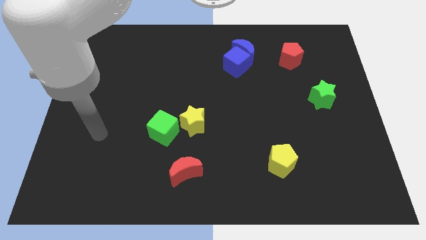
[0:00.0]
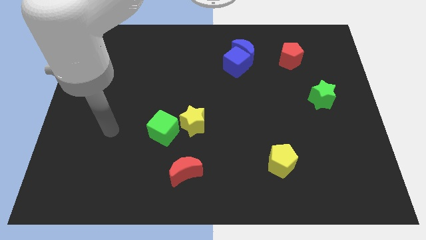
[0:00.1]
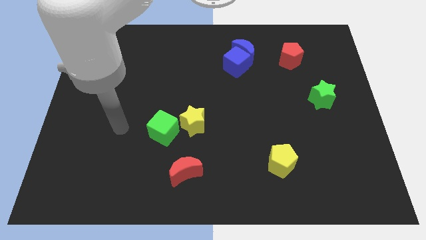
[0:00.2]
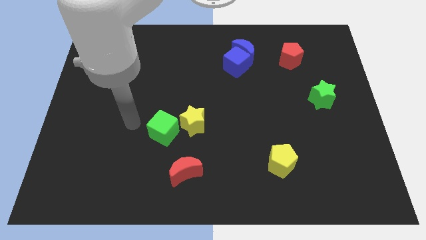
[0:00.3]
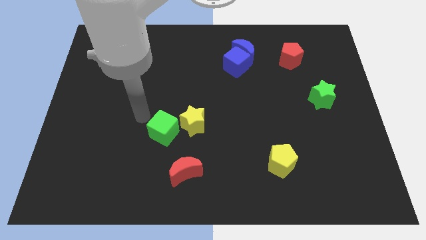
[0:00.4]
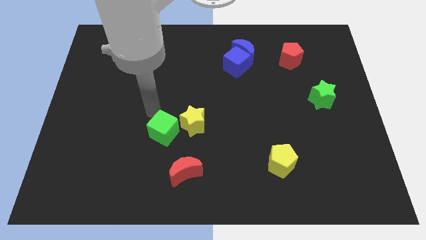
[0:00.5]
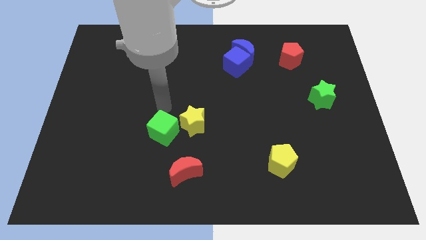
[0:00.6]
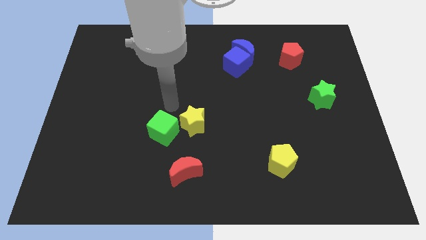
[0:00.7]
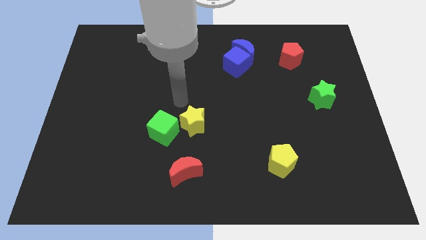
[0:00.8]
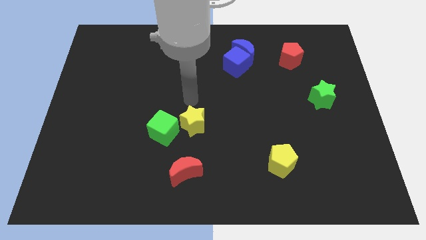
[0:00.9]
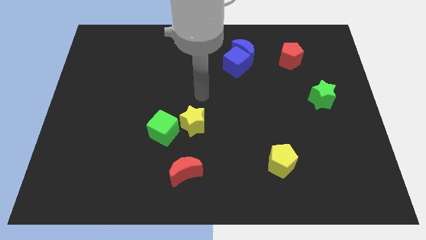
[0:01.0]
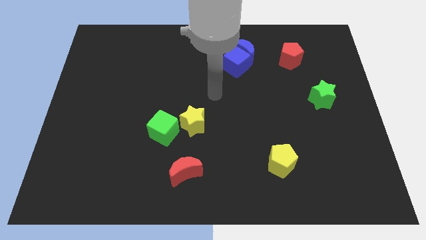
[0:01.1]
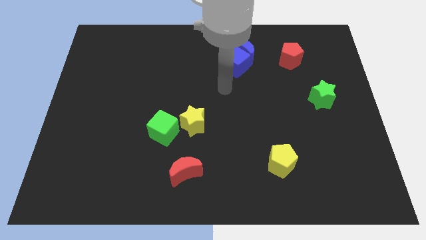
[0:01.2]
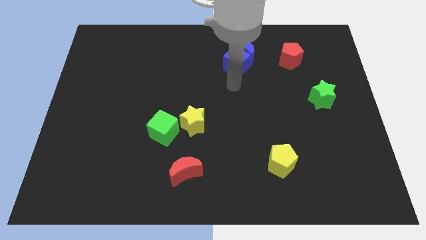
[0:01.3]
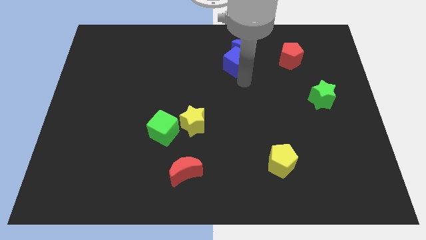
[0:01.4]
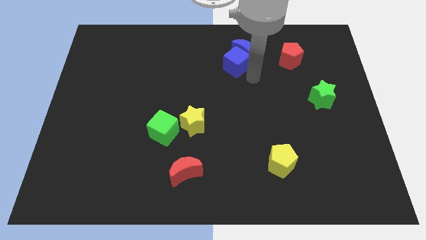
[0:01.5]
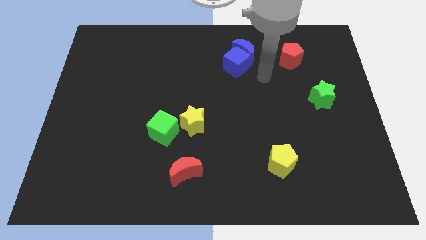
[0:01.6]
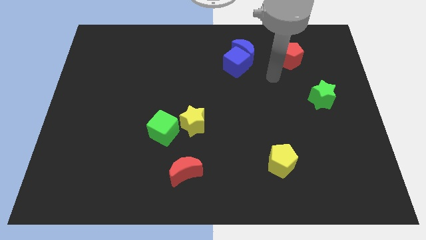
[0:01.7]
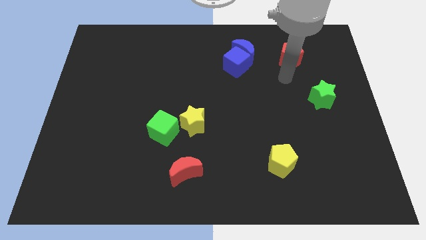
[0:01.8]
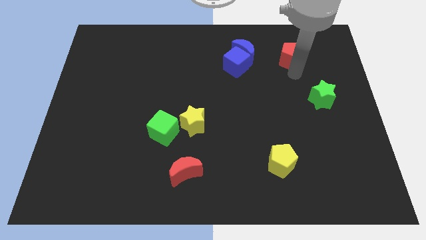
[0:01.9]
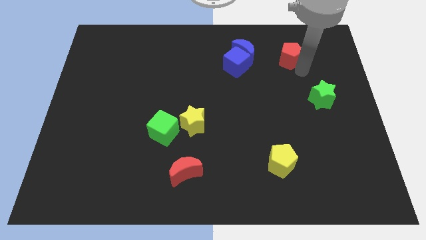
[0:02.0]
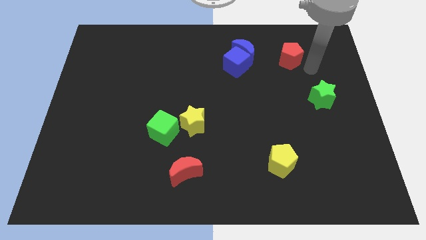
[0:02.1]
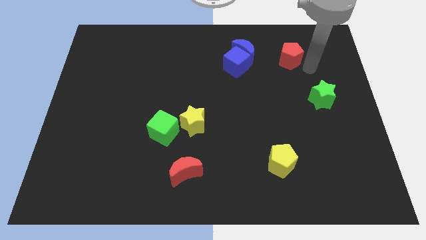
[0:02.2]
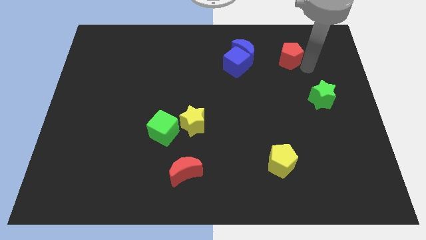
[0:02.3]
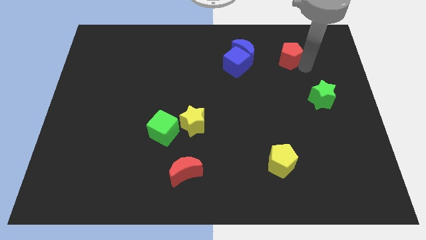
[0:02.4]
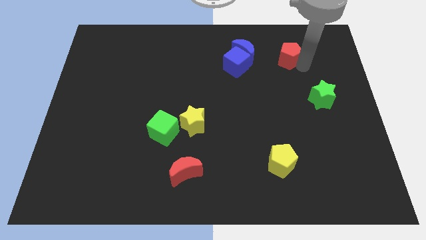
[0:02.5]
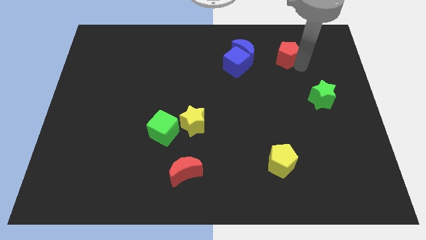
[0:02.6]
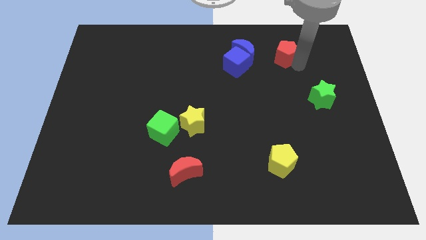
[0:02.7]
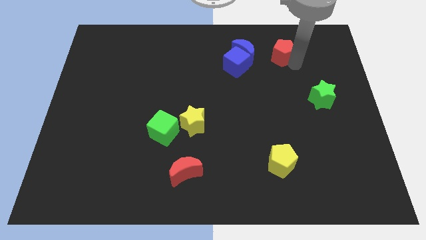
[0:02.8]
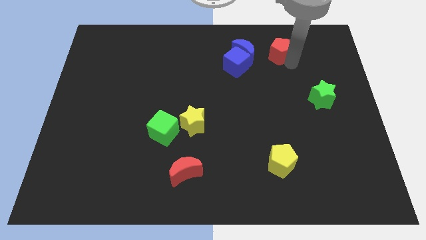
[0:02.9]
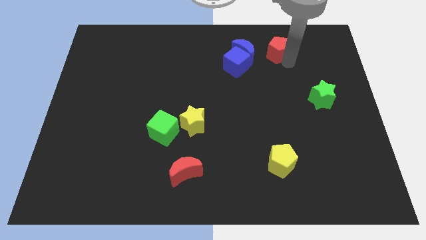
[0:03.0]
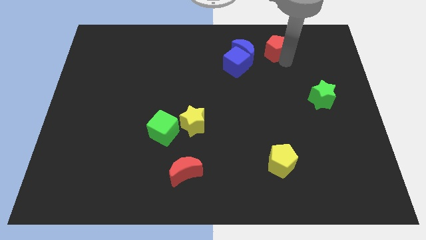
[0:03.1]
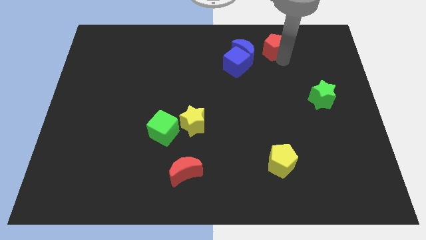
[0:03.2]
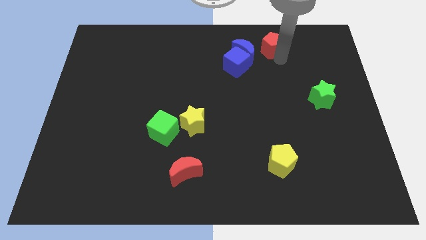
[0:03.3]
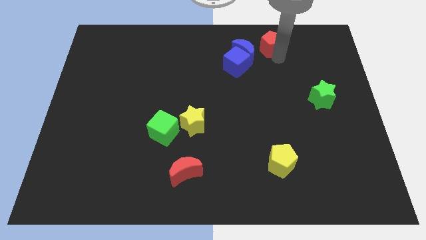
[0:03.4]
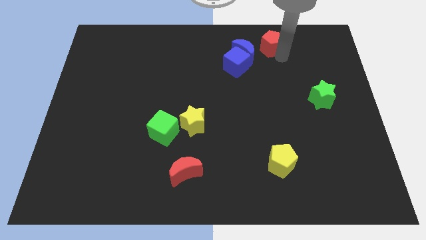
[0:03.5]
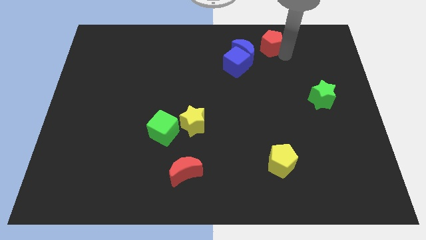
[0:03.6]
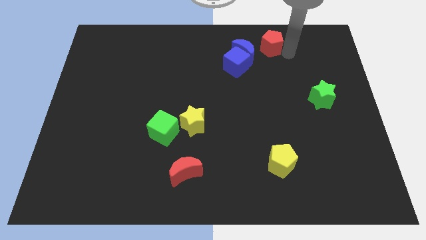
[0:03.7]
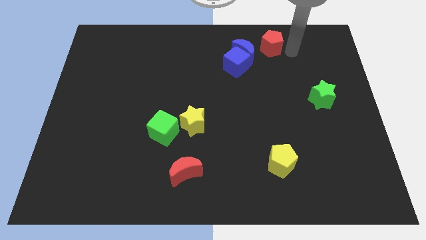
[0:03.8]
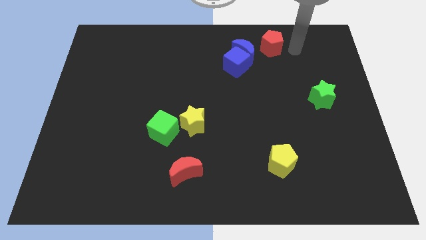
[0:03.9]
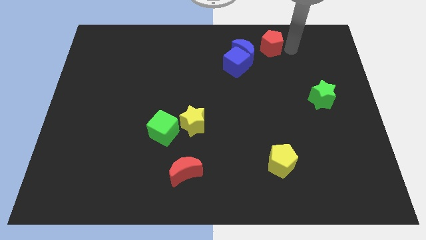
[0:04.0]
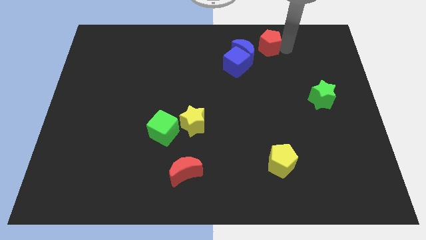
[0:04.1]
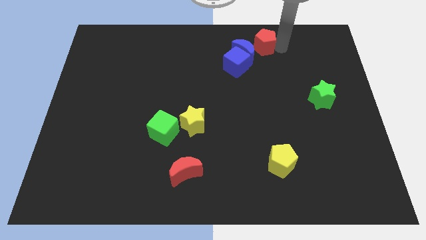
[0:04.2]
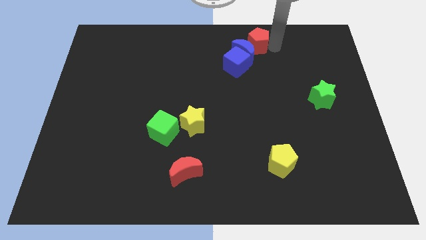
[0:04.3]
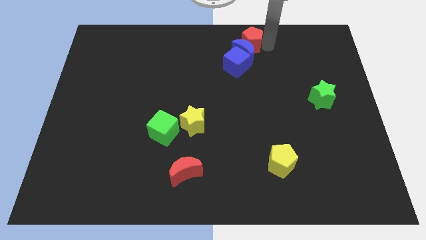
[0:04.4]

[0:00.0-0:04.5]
move the red pentagon to the left a little bit

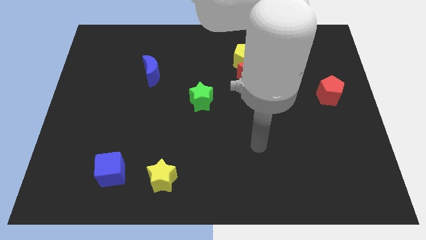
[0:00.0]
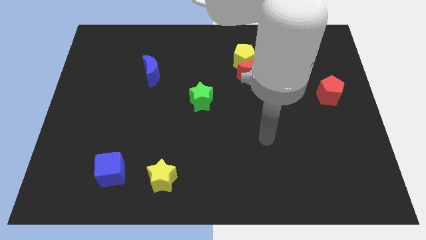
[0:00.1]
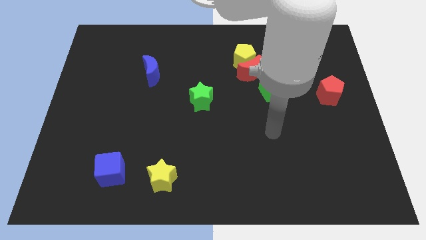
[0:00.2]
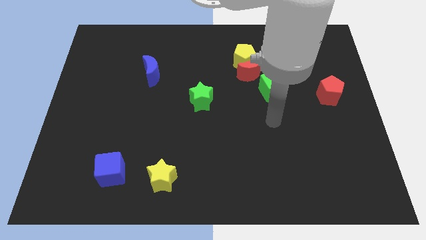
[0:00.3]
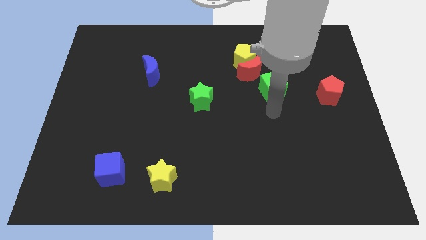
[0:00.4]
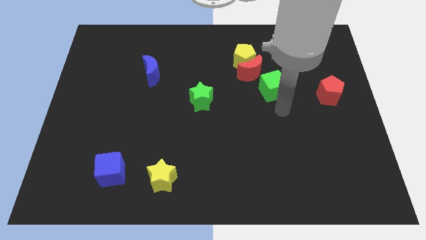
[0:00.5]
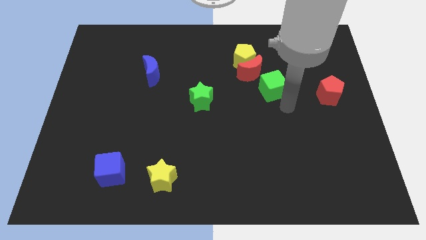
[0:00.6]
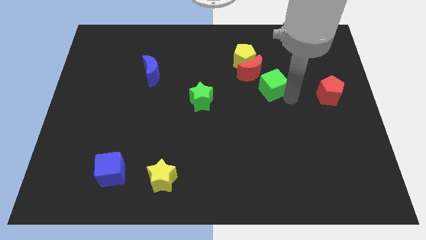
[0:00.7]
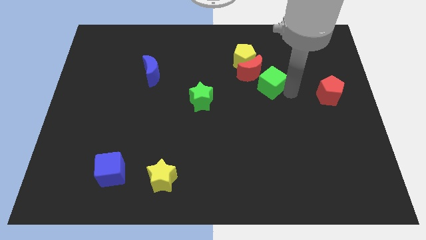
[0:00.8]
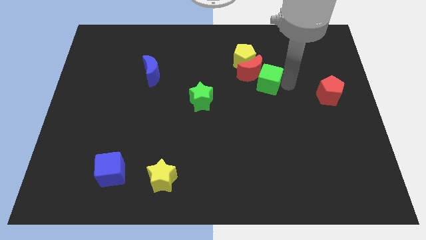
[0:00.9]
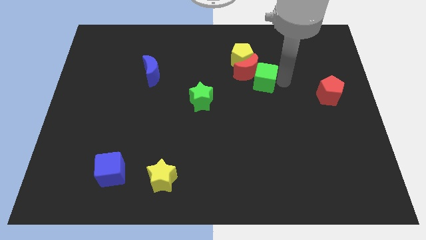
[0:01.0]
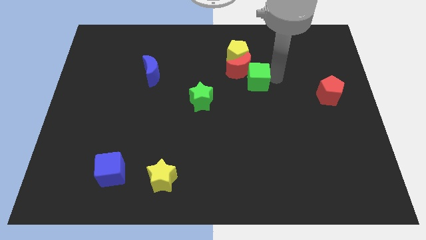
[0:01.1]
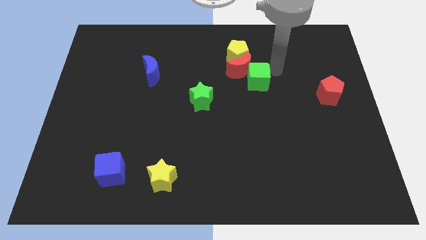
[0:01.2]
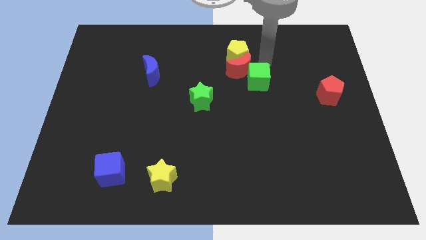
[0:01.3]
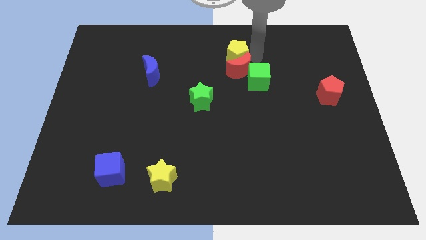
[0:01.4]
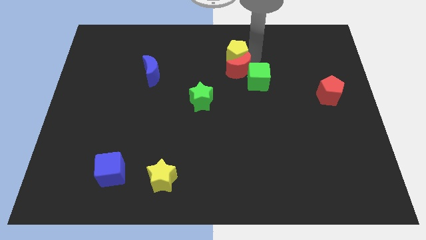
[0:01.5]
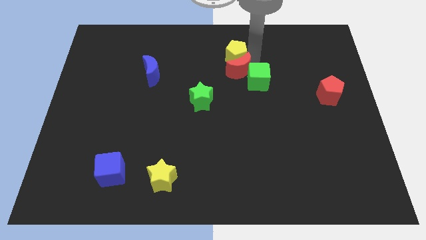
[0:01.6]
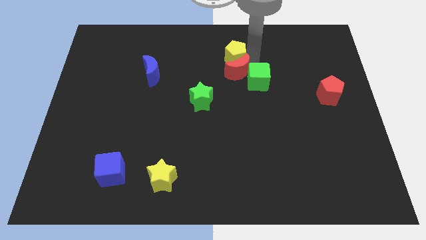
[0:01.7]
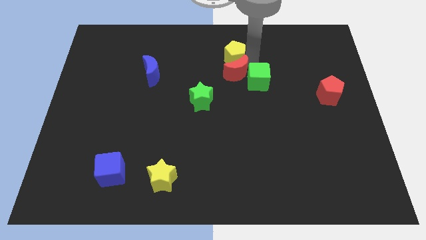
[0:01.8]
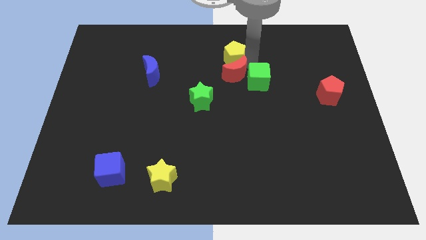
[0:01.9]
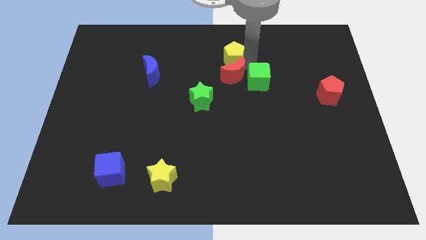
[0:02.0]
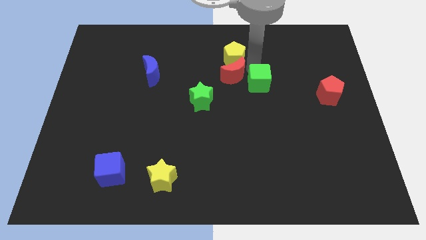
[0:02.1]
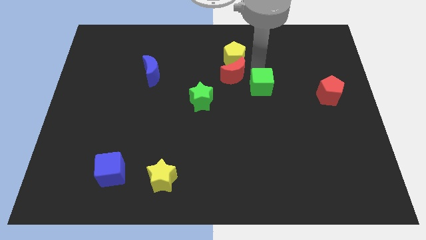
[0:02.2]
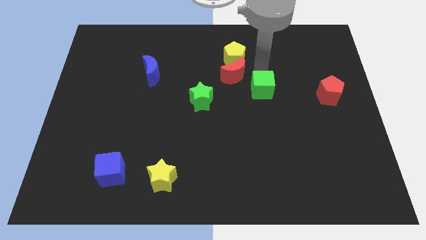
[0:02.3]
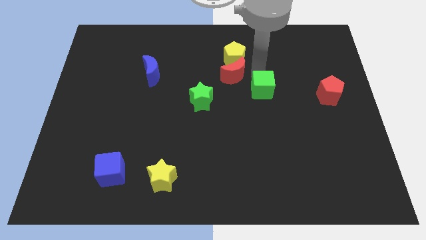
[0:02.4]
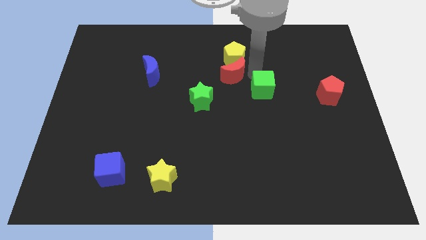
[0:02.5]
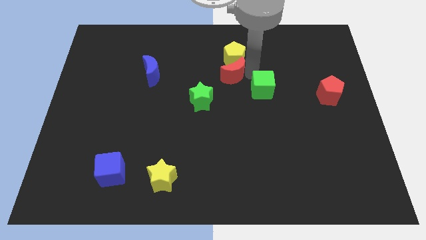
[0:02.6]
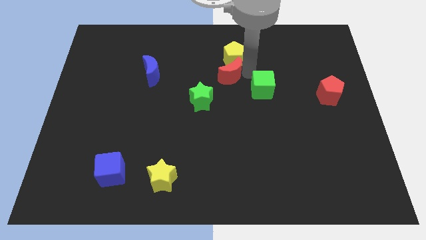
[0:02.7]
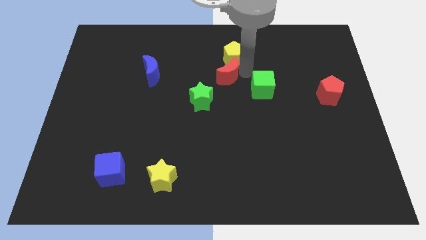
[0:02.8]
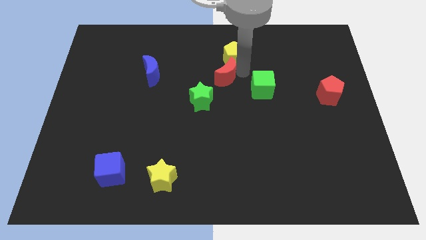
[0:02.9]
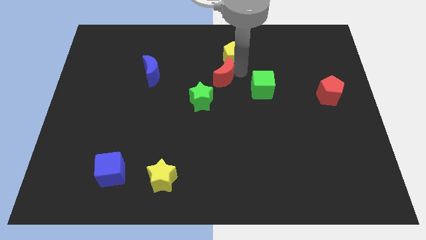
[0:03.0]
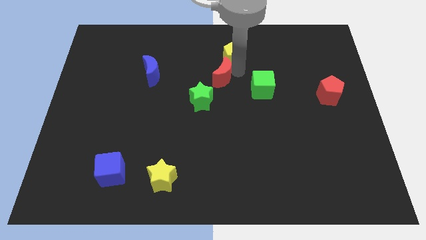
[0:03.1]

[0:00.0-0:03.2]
slide the red moon left a bit

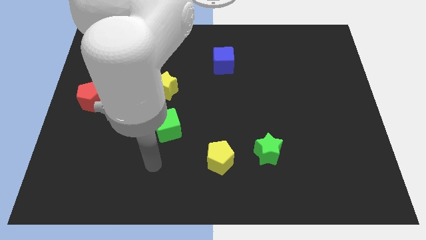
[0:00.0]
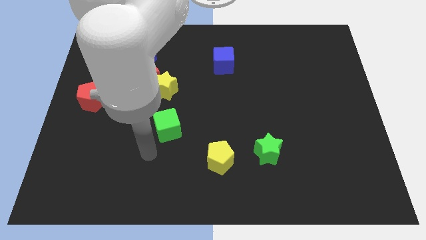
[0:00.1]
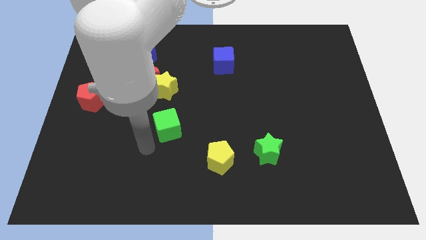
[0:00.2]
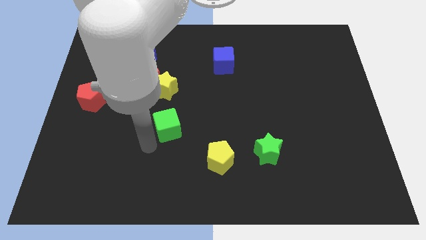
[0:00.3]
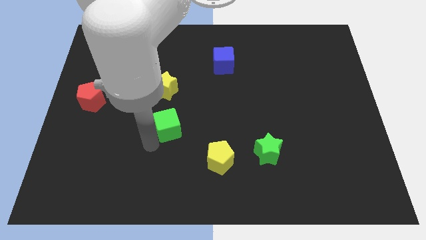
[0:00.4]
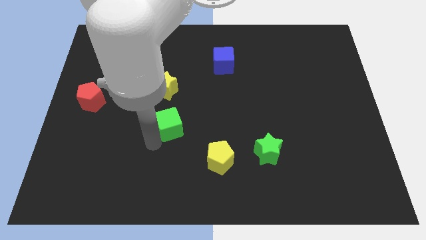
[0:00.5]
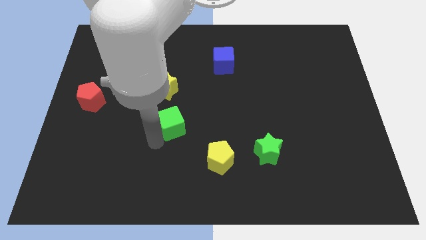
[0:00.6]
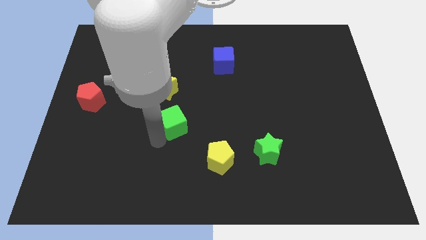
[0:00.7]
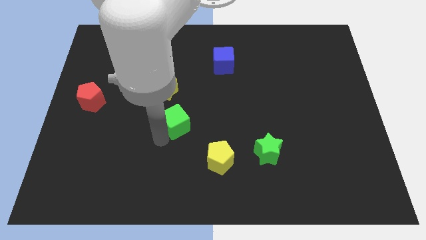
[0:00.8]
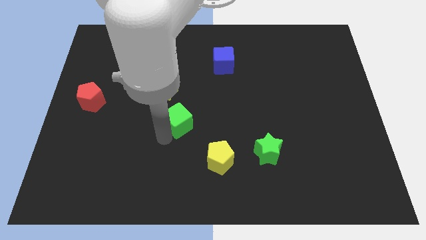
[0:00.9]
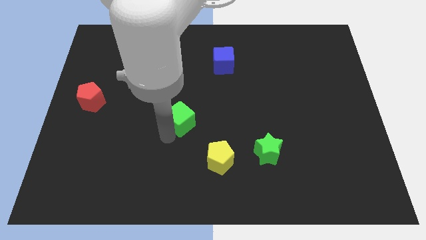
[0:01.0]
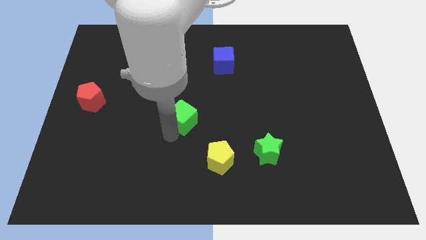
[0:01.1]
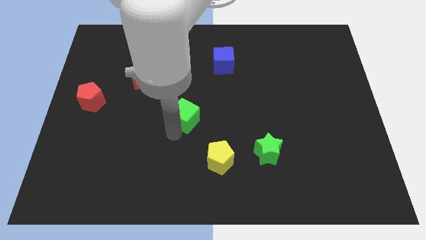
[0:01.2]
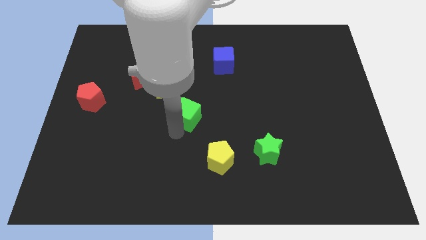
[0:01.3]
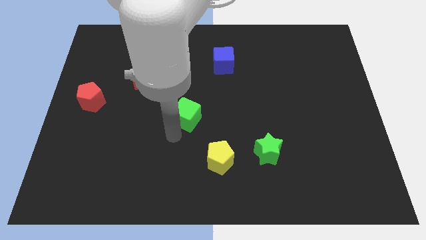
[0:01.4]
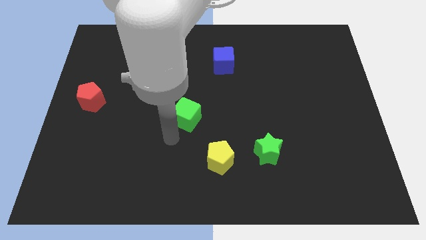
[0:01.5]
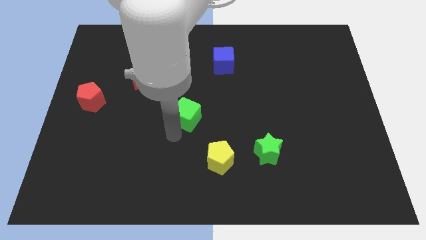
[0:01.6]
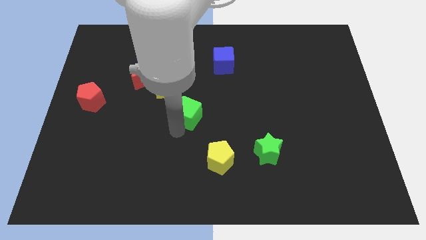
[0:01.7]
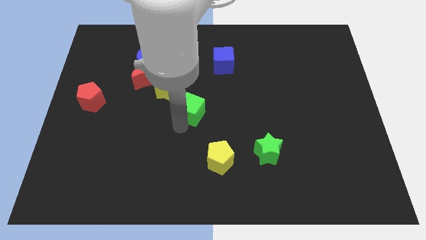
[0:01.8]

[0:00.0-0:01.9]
slide the green cube a bit up and then to the right
